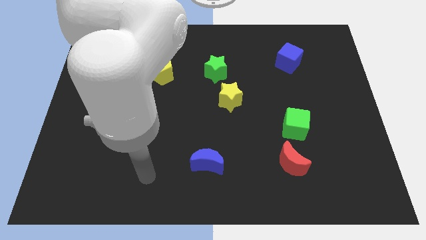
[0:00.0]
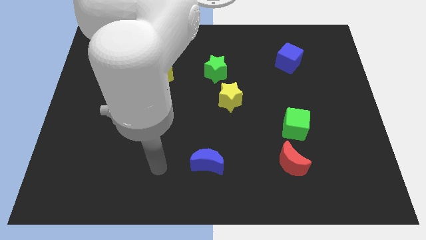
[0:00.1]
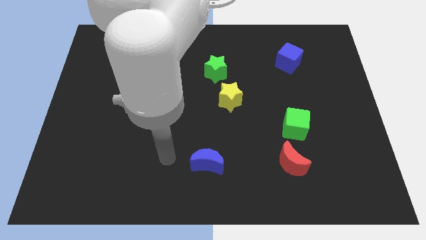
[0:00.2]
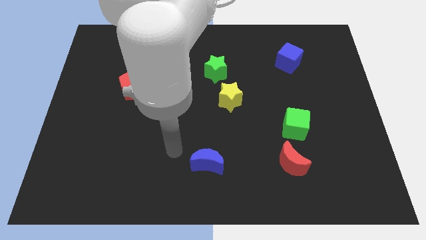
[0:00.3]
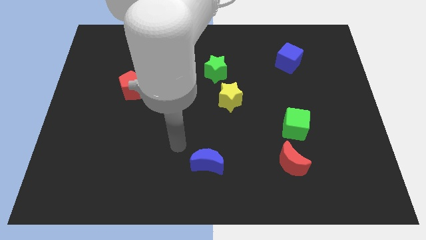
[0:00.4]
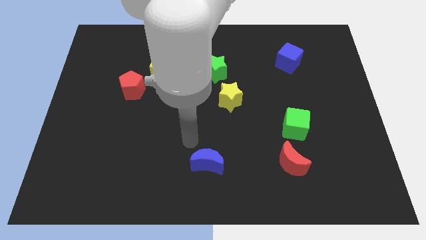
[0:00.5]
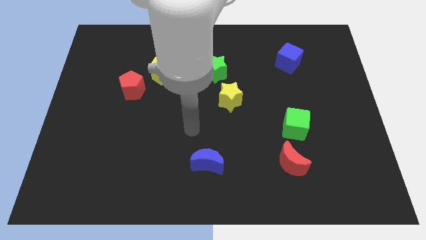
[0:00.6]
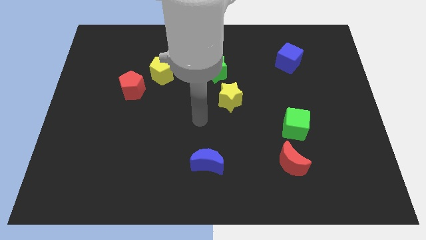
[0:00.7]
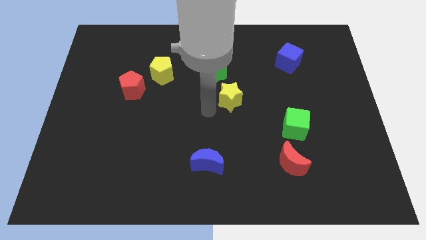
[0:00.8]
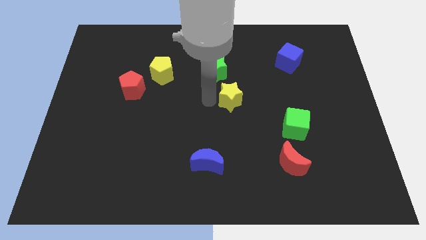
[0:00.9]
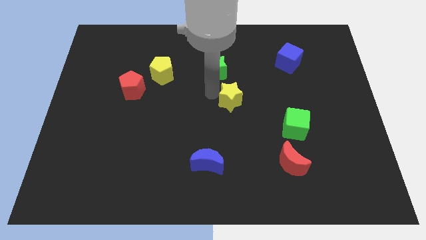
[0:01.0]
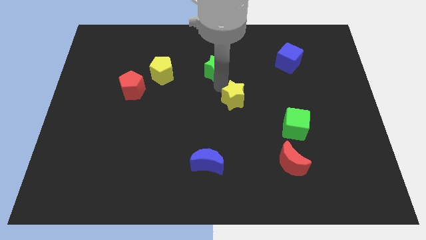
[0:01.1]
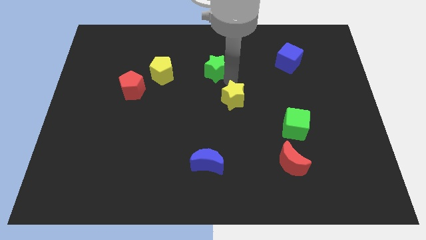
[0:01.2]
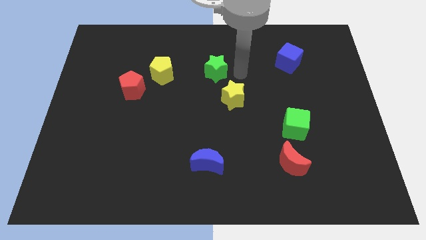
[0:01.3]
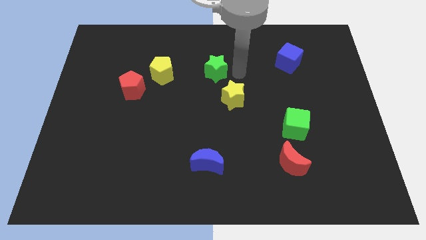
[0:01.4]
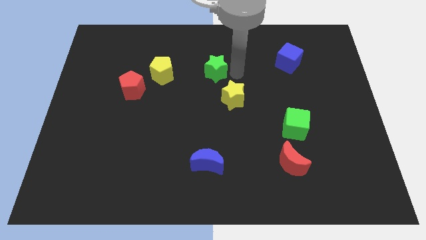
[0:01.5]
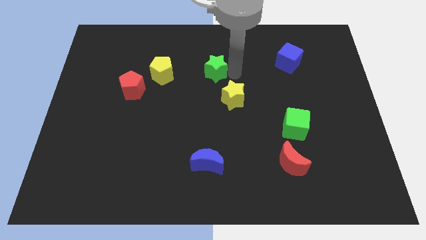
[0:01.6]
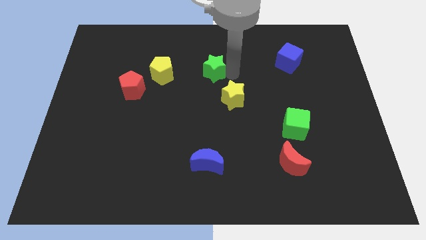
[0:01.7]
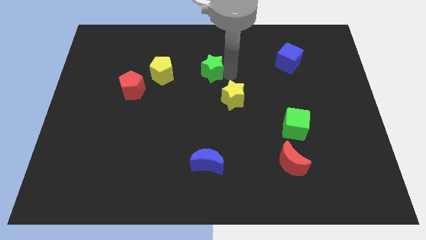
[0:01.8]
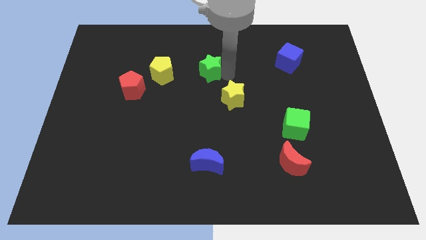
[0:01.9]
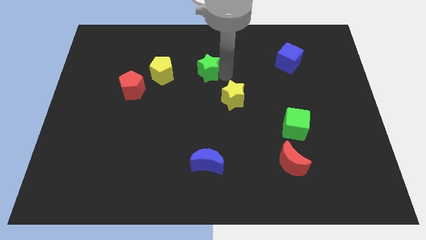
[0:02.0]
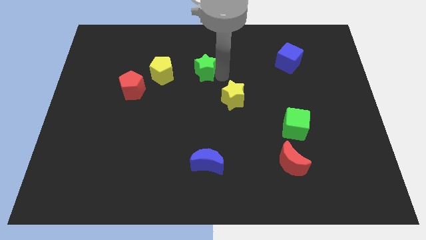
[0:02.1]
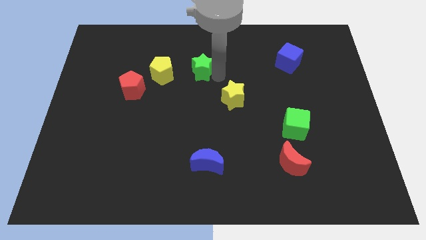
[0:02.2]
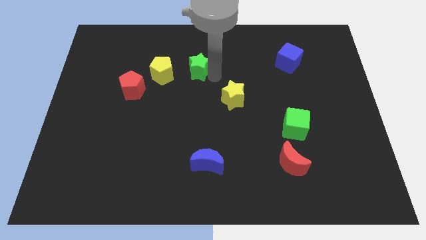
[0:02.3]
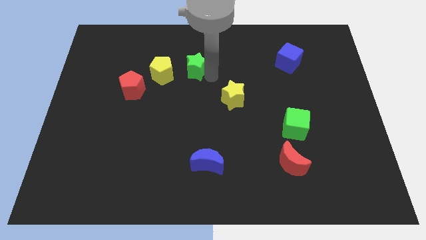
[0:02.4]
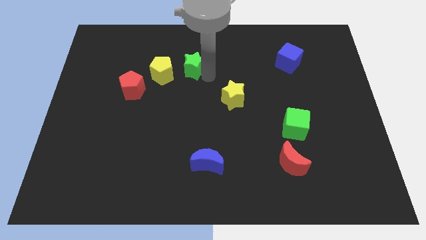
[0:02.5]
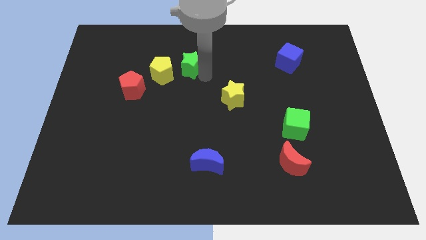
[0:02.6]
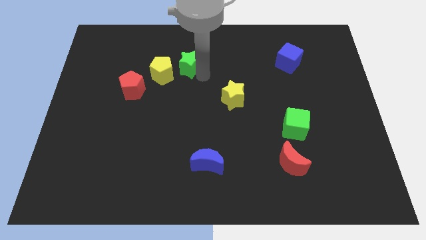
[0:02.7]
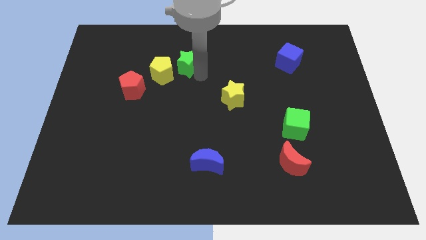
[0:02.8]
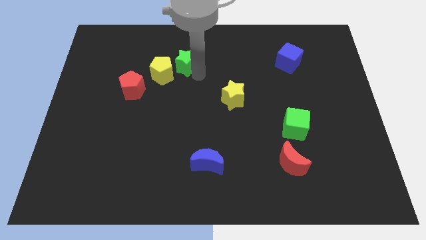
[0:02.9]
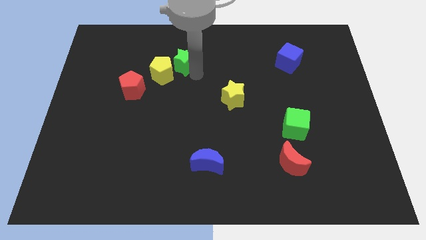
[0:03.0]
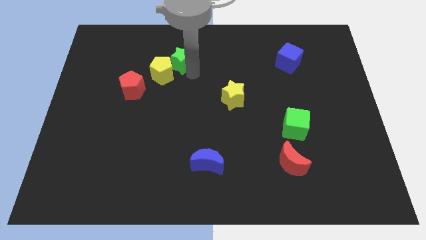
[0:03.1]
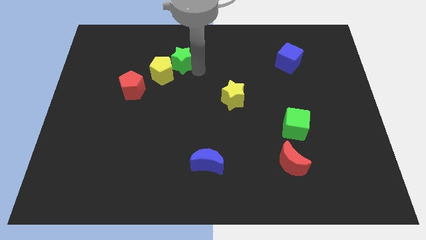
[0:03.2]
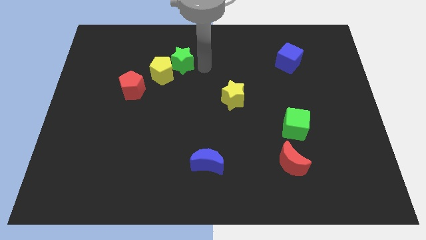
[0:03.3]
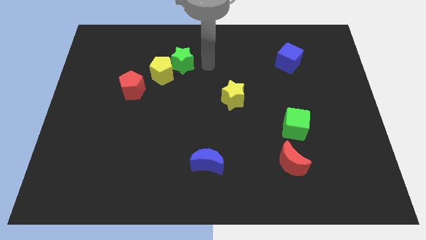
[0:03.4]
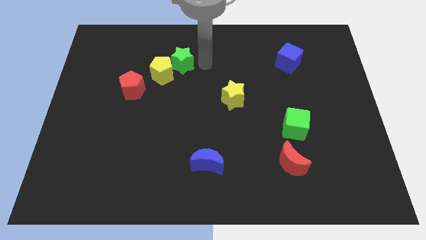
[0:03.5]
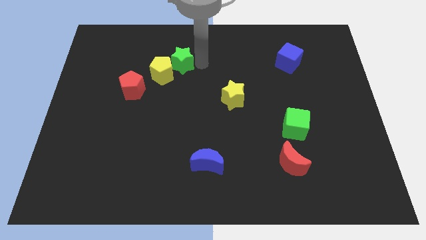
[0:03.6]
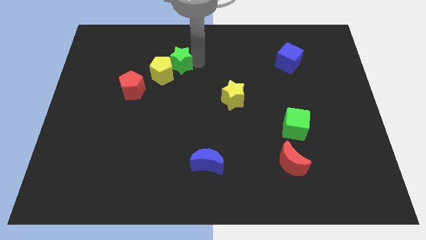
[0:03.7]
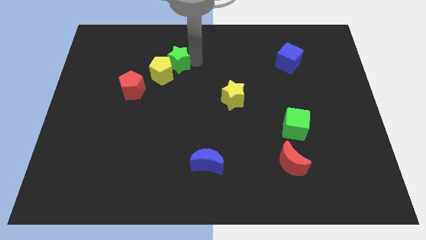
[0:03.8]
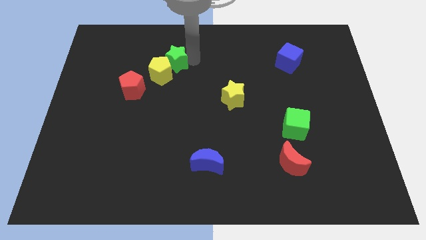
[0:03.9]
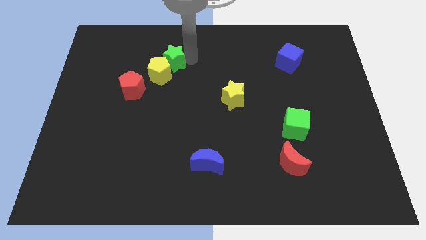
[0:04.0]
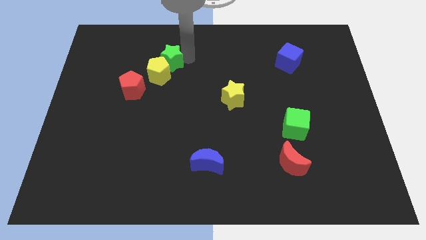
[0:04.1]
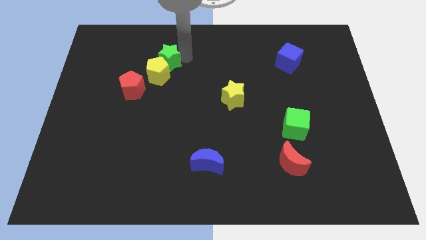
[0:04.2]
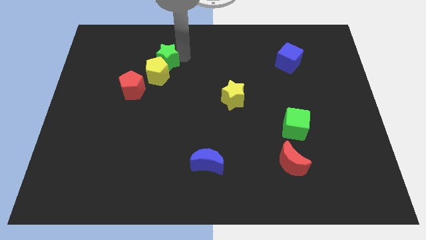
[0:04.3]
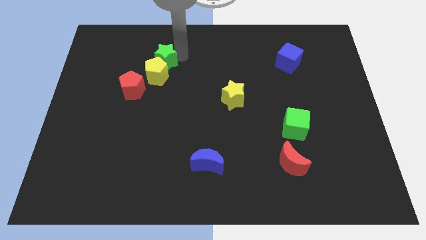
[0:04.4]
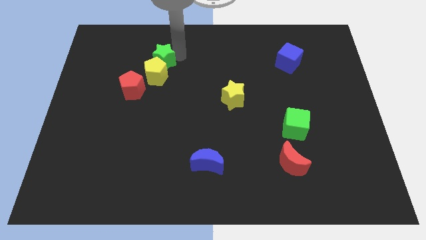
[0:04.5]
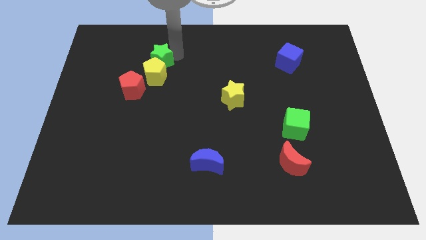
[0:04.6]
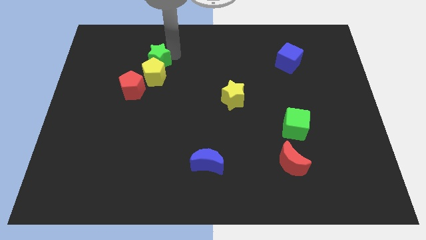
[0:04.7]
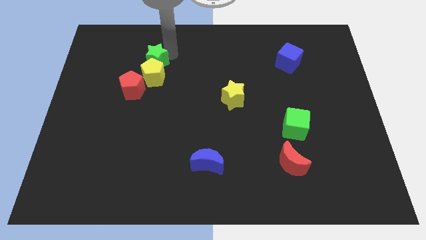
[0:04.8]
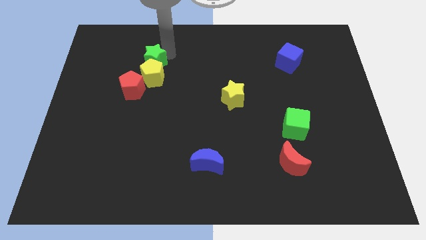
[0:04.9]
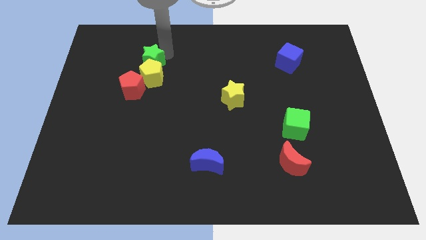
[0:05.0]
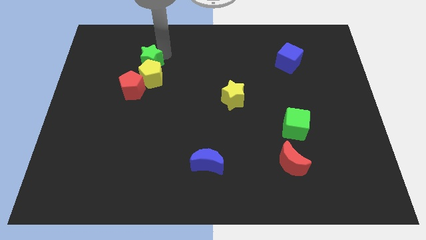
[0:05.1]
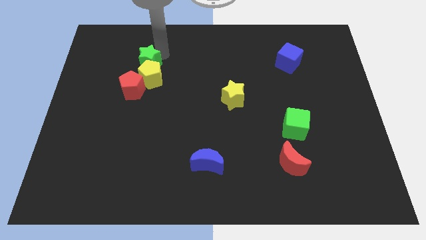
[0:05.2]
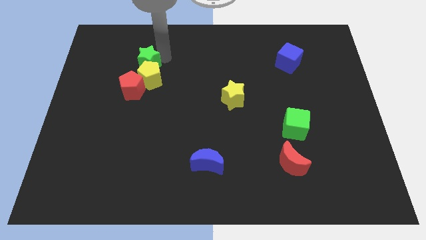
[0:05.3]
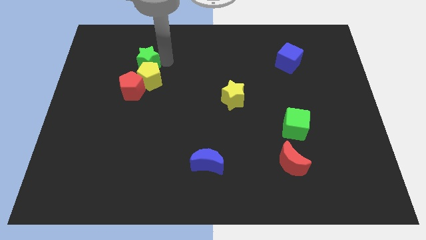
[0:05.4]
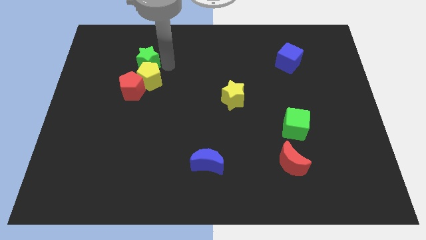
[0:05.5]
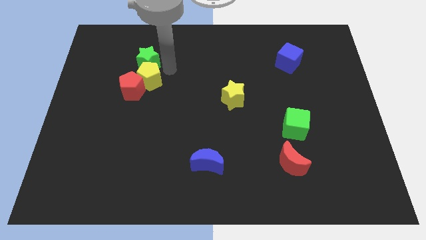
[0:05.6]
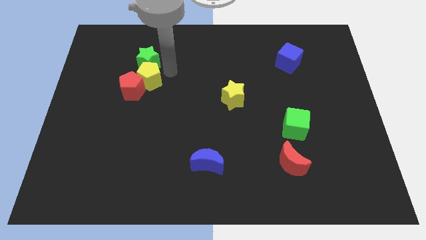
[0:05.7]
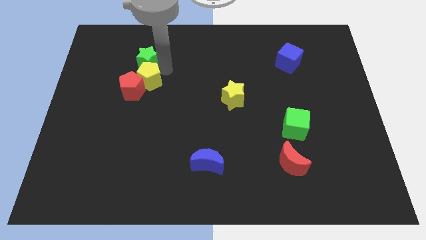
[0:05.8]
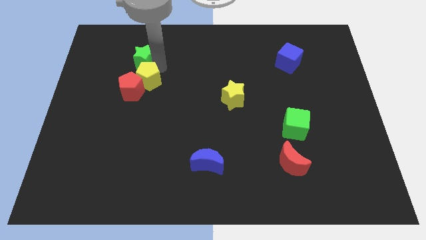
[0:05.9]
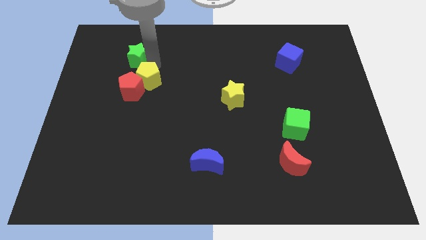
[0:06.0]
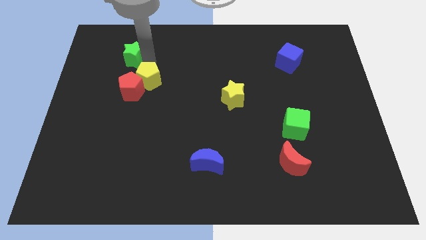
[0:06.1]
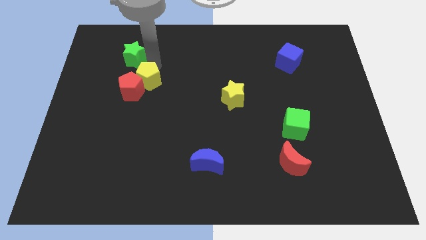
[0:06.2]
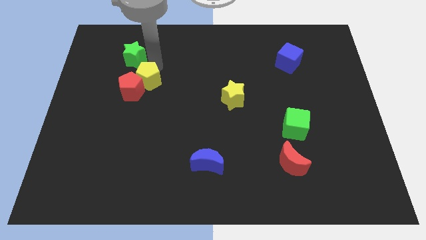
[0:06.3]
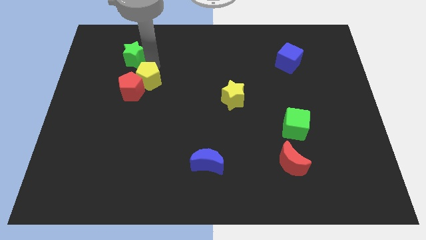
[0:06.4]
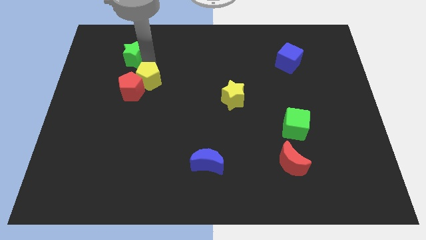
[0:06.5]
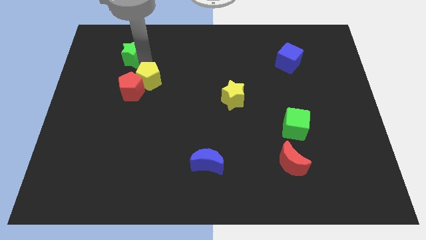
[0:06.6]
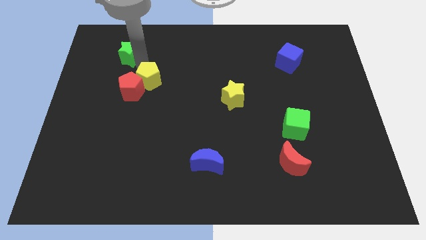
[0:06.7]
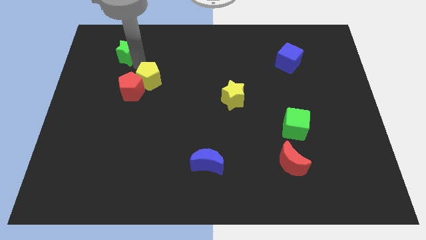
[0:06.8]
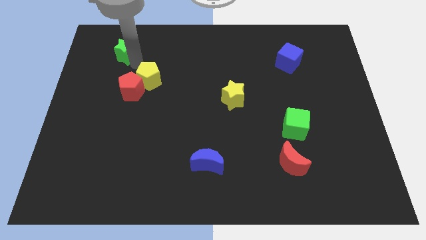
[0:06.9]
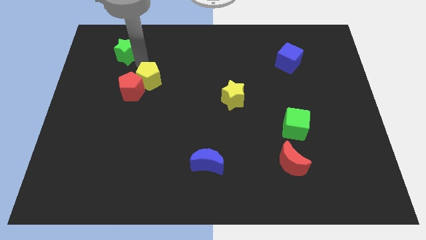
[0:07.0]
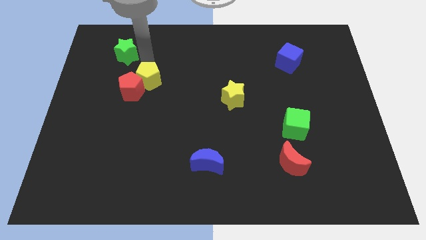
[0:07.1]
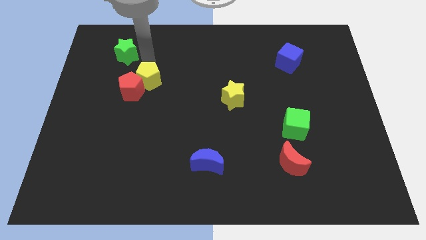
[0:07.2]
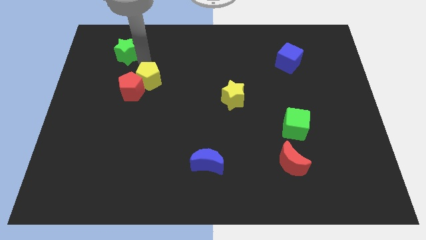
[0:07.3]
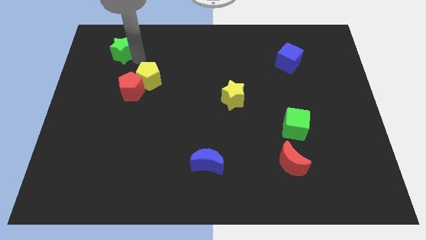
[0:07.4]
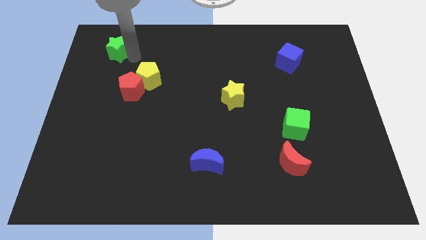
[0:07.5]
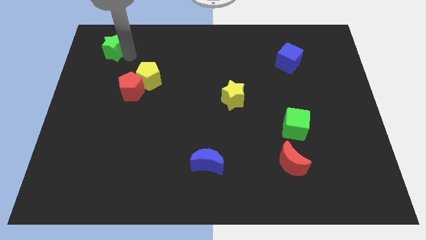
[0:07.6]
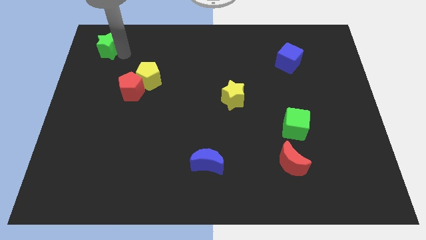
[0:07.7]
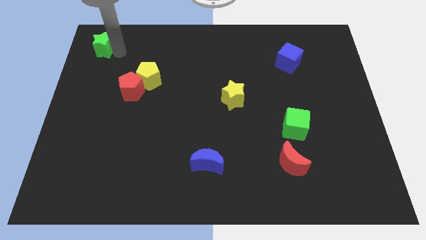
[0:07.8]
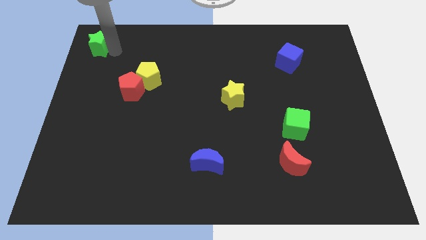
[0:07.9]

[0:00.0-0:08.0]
put the green star to the top left corner
